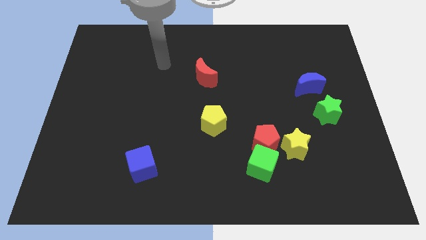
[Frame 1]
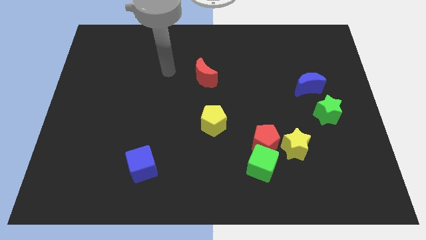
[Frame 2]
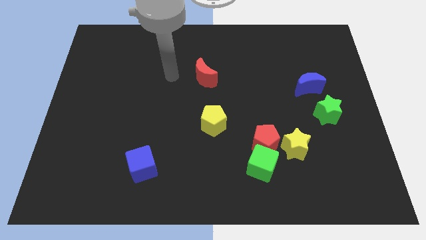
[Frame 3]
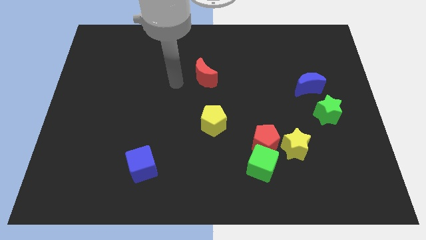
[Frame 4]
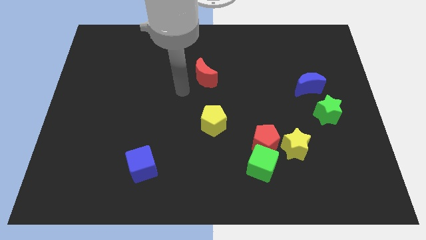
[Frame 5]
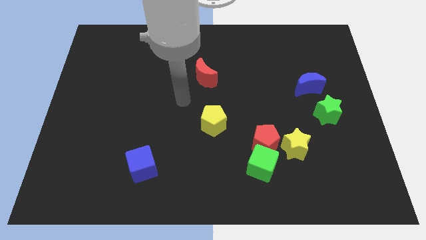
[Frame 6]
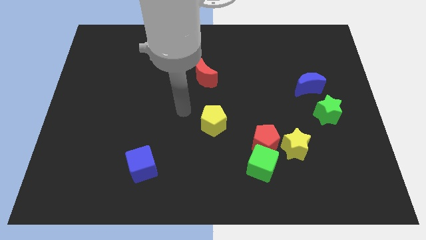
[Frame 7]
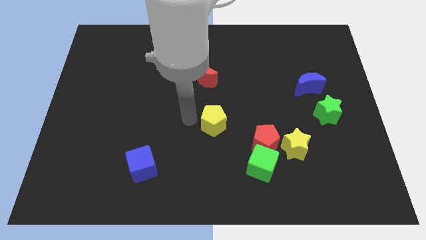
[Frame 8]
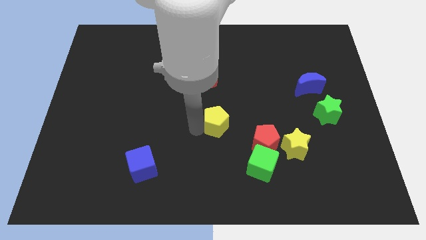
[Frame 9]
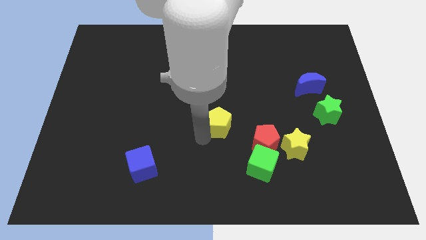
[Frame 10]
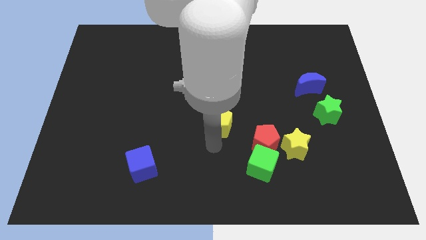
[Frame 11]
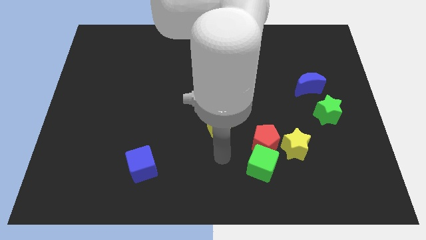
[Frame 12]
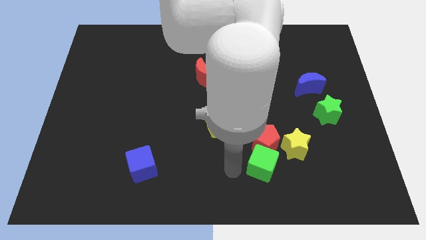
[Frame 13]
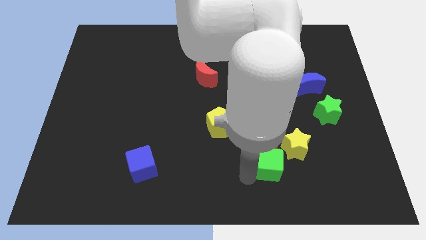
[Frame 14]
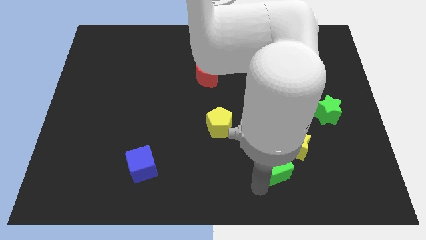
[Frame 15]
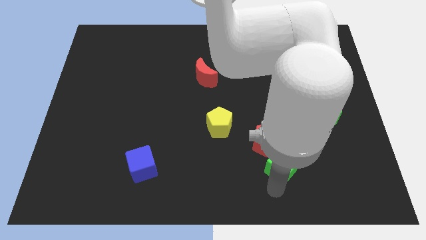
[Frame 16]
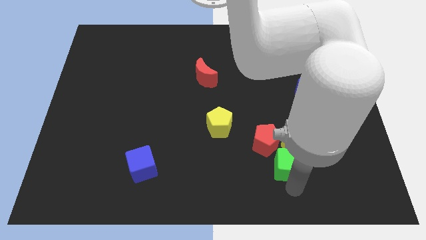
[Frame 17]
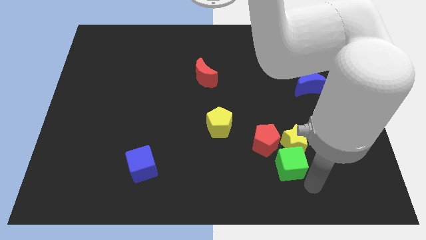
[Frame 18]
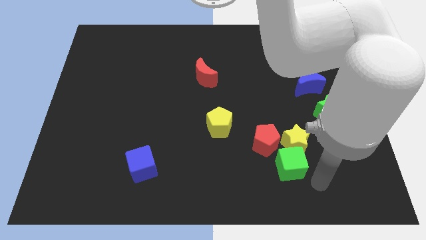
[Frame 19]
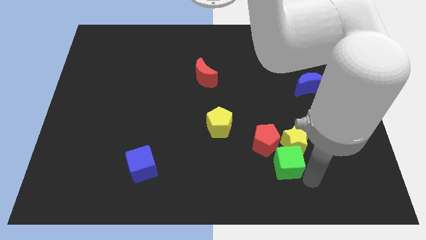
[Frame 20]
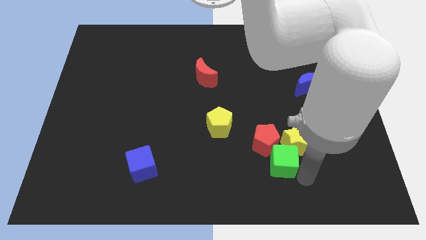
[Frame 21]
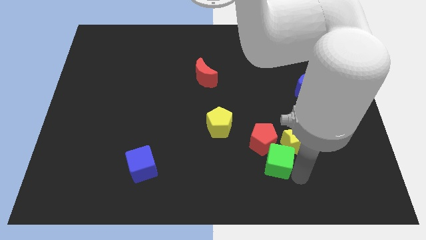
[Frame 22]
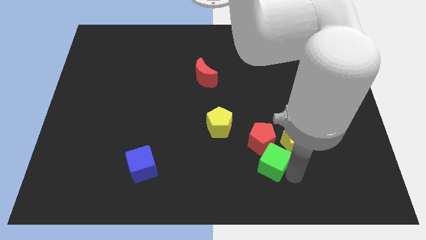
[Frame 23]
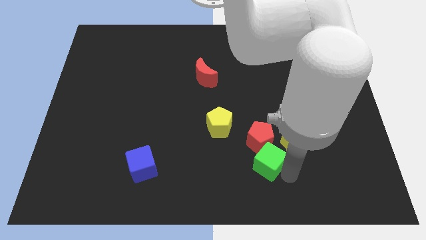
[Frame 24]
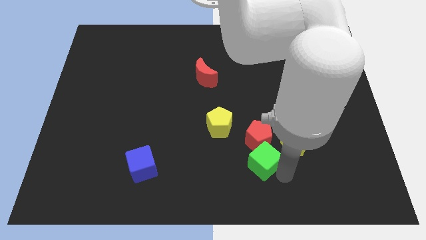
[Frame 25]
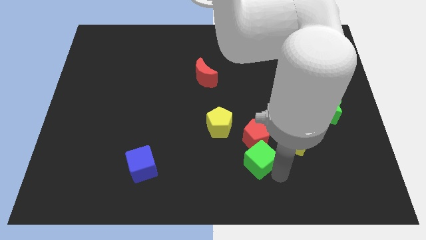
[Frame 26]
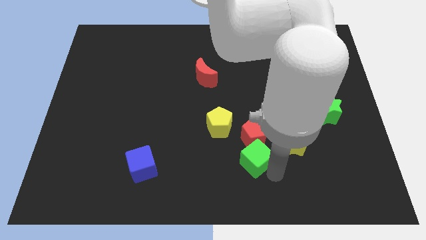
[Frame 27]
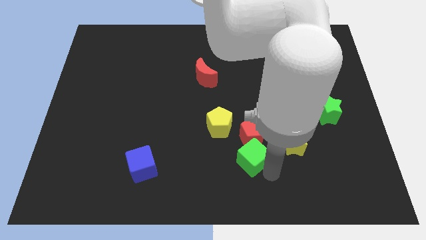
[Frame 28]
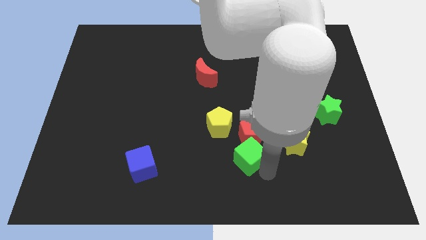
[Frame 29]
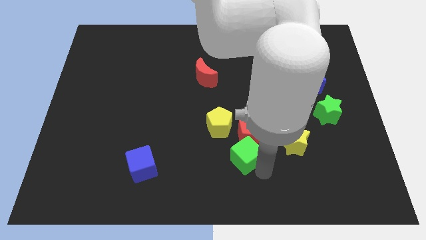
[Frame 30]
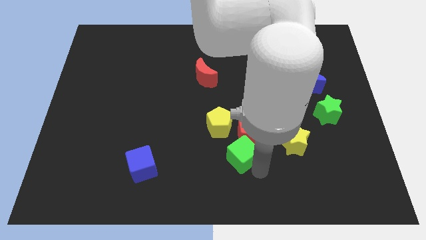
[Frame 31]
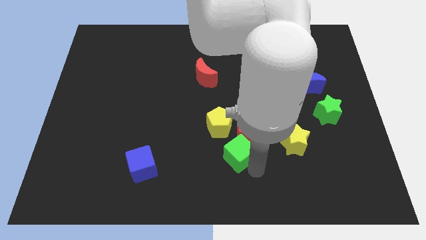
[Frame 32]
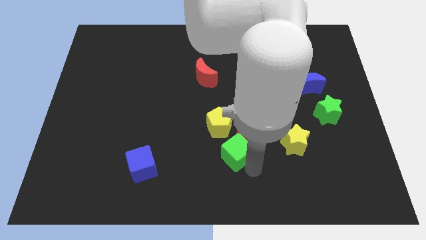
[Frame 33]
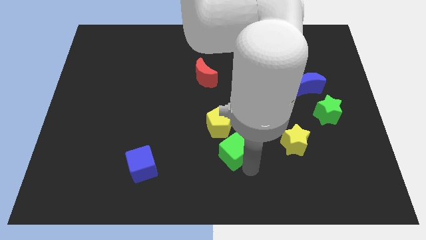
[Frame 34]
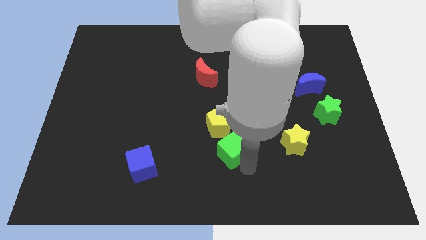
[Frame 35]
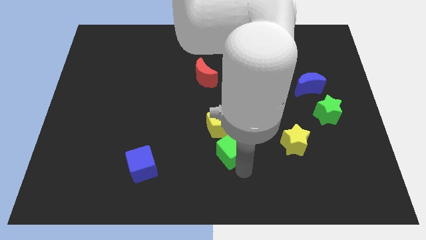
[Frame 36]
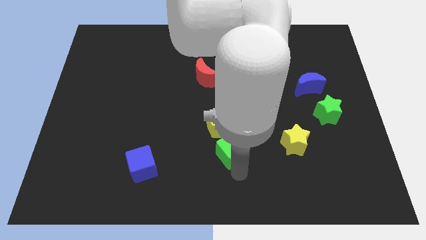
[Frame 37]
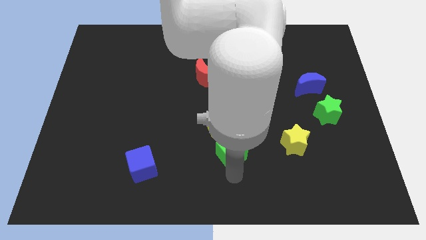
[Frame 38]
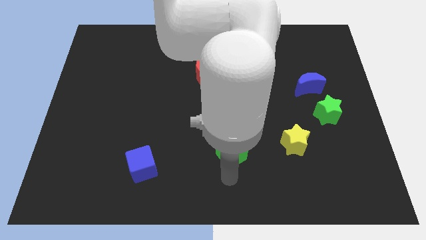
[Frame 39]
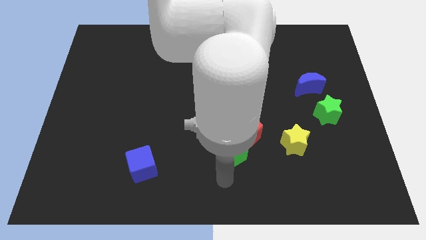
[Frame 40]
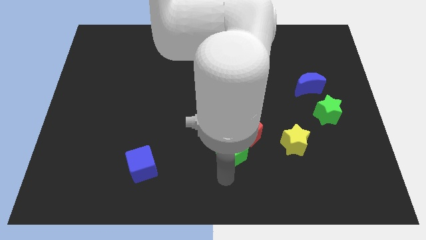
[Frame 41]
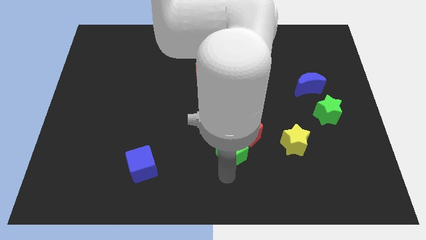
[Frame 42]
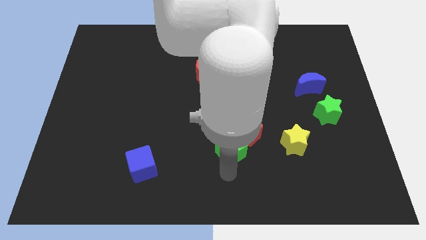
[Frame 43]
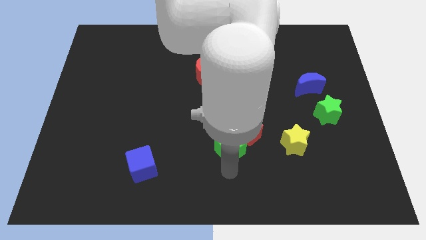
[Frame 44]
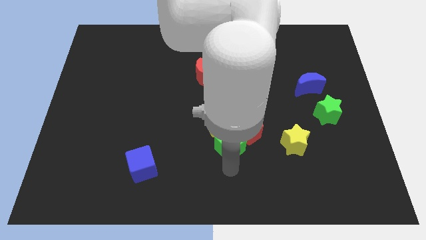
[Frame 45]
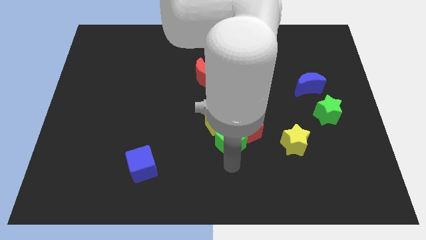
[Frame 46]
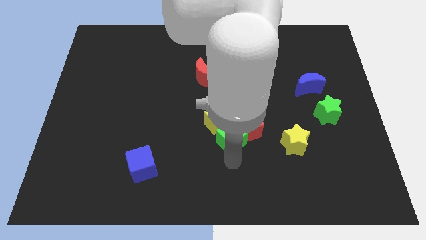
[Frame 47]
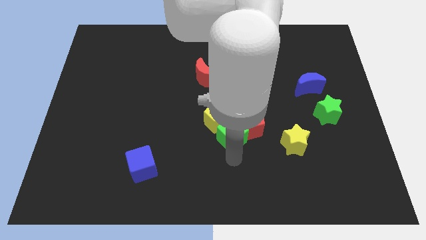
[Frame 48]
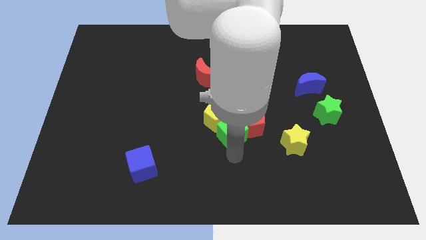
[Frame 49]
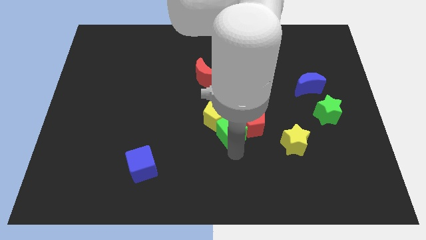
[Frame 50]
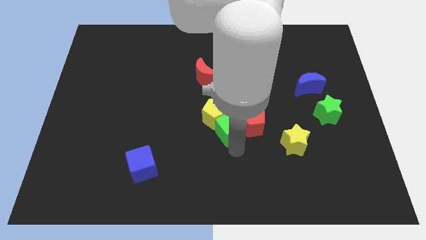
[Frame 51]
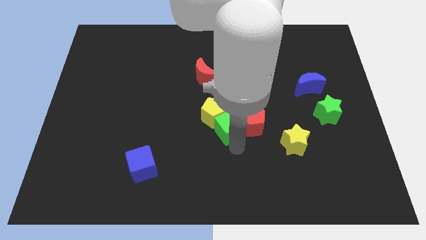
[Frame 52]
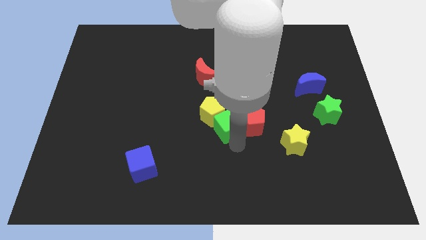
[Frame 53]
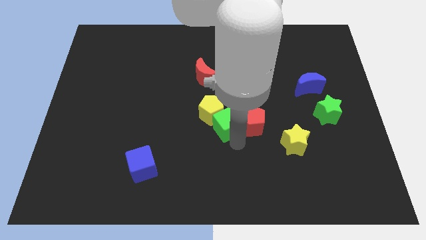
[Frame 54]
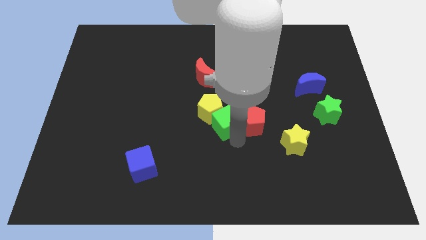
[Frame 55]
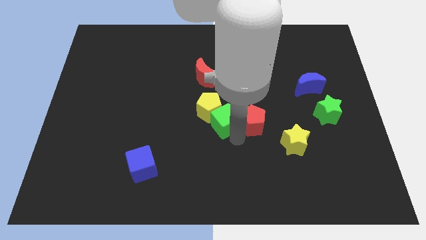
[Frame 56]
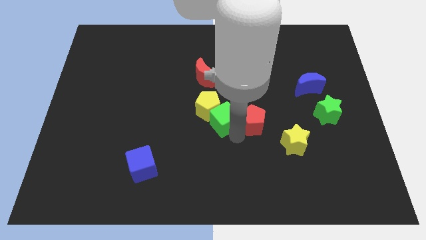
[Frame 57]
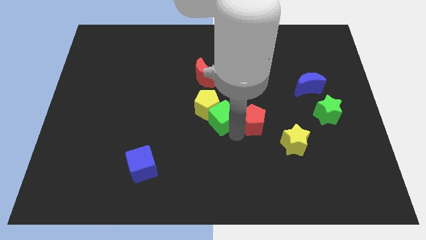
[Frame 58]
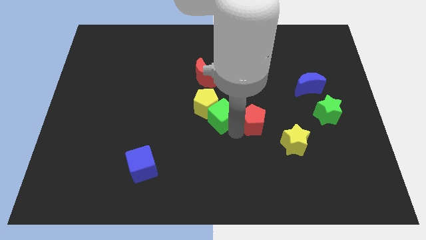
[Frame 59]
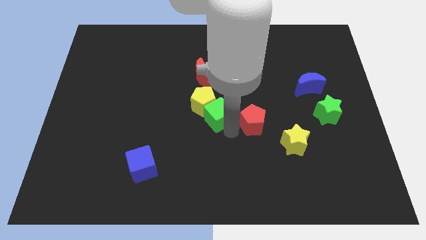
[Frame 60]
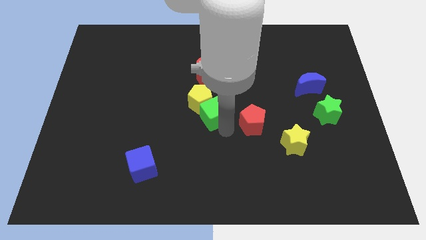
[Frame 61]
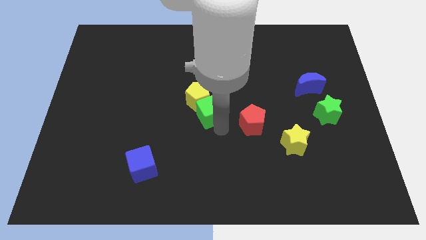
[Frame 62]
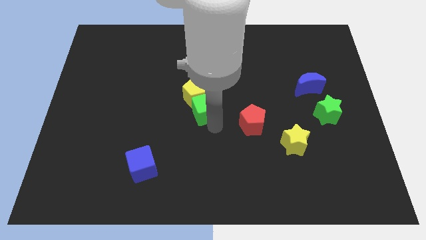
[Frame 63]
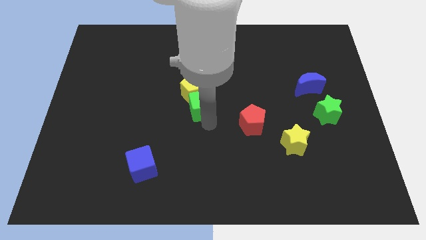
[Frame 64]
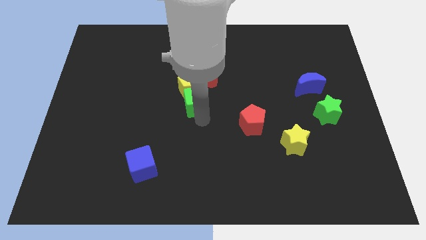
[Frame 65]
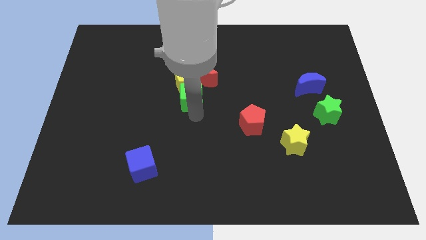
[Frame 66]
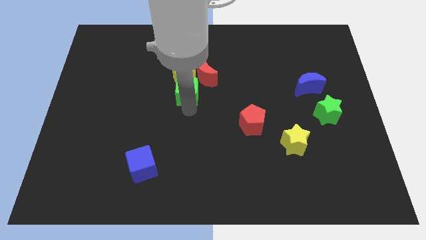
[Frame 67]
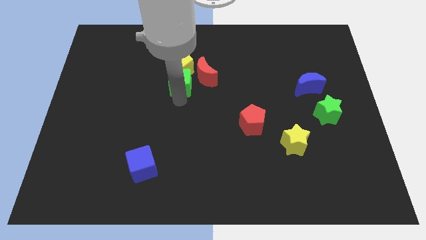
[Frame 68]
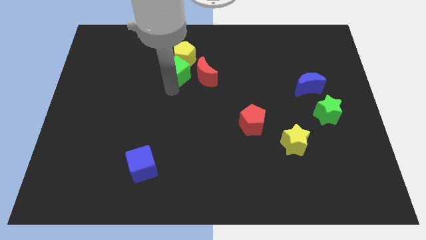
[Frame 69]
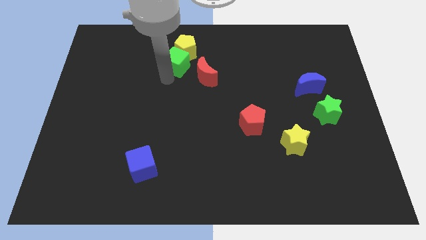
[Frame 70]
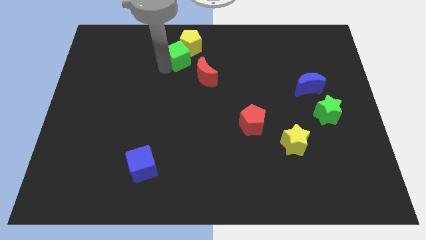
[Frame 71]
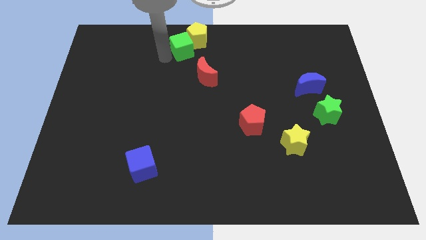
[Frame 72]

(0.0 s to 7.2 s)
slide the green cube to the top
